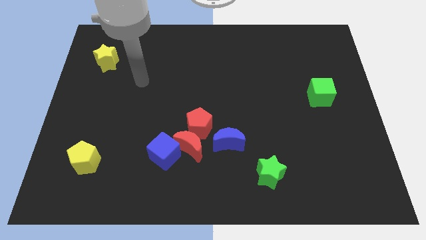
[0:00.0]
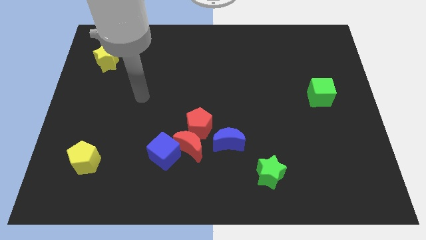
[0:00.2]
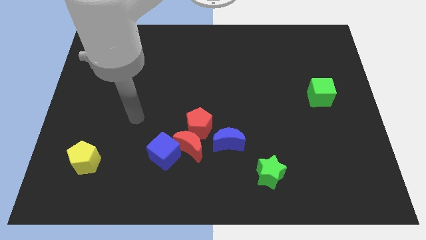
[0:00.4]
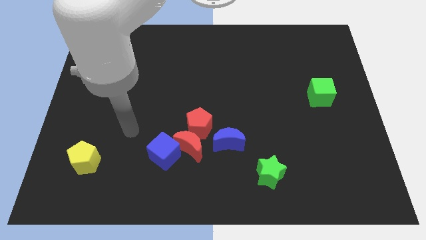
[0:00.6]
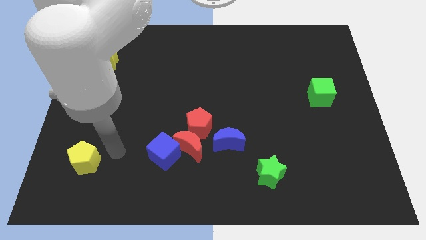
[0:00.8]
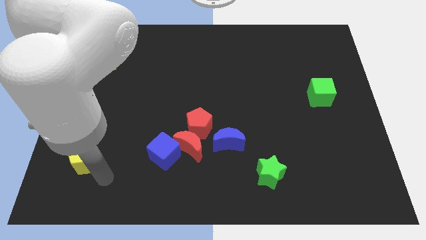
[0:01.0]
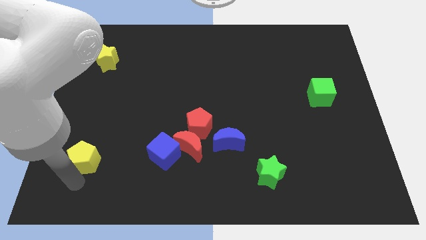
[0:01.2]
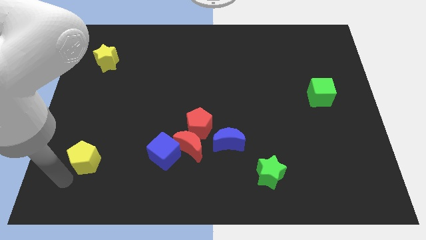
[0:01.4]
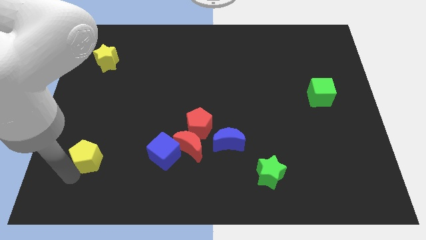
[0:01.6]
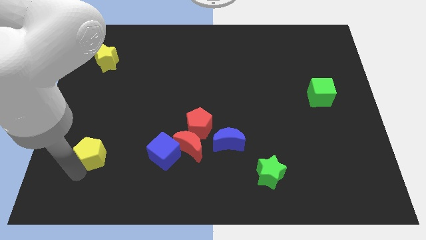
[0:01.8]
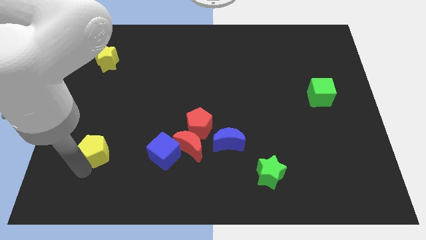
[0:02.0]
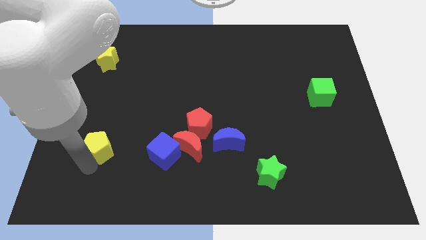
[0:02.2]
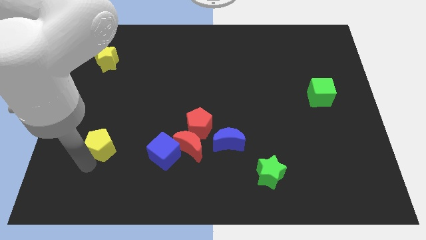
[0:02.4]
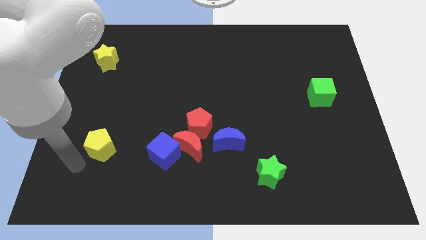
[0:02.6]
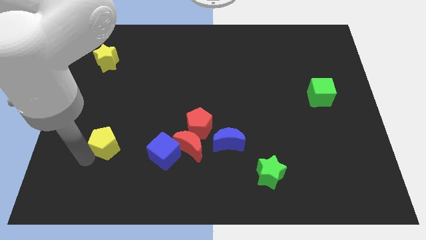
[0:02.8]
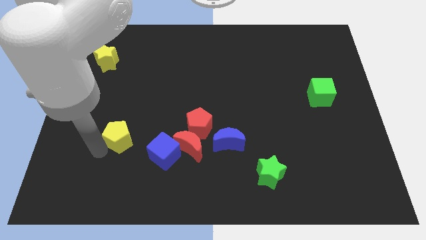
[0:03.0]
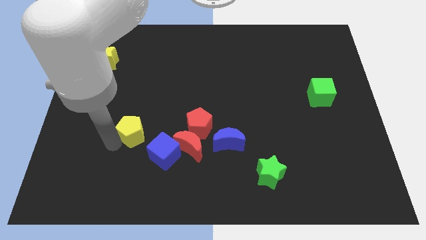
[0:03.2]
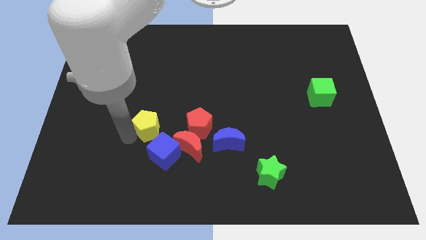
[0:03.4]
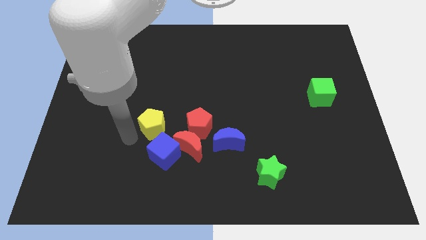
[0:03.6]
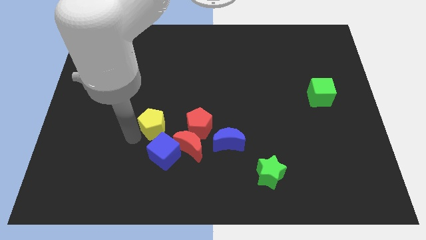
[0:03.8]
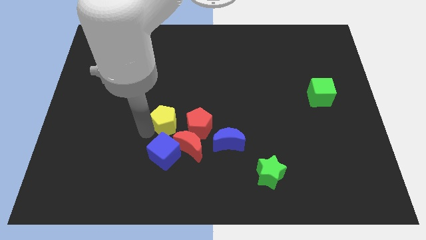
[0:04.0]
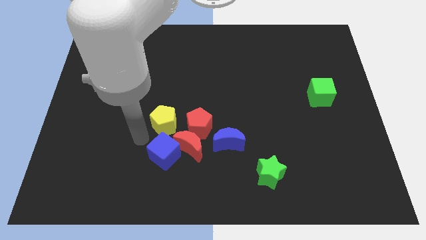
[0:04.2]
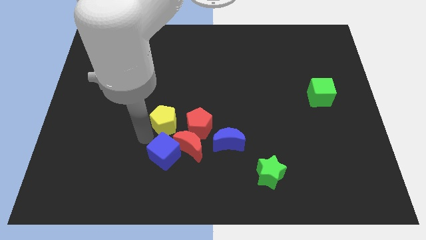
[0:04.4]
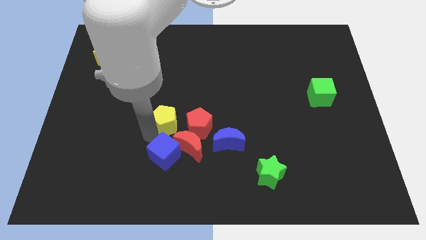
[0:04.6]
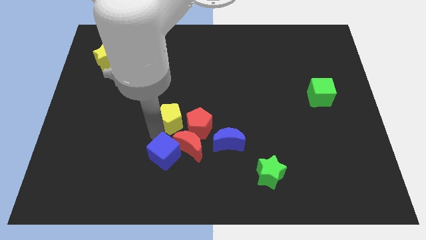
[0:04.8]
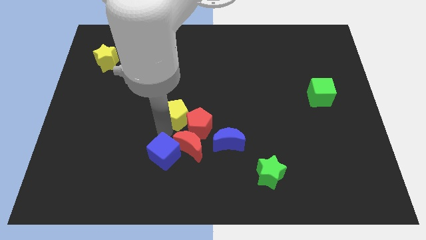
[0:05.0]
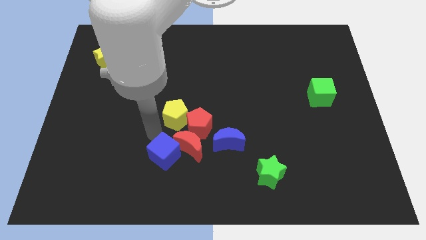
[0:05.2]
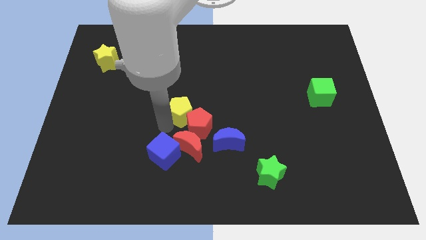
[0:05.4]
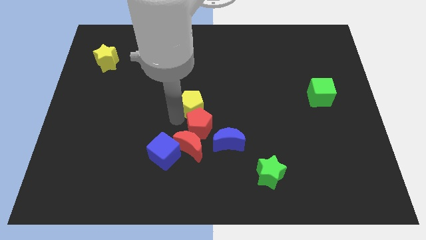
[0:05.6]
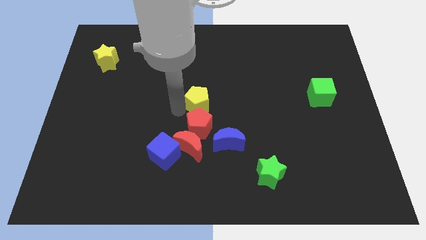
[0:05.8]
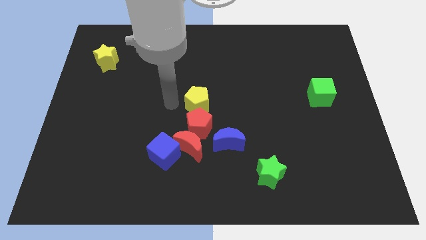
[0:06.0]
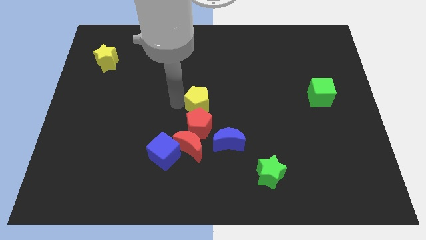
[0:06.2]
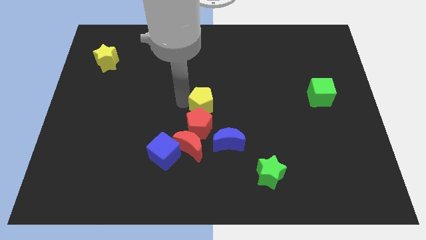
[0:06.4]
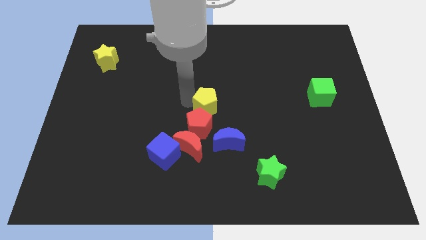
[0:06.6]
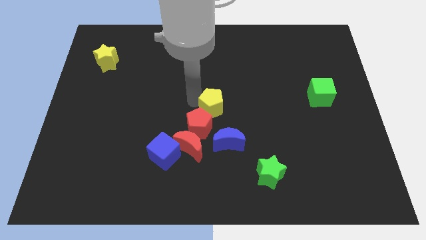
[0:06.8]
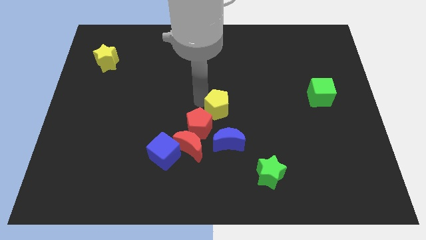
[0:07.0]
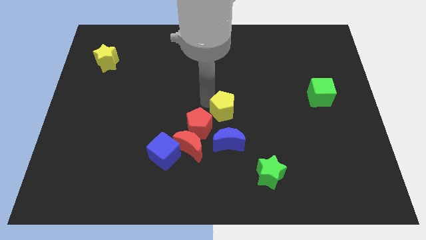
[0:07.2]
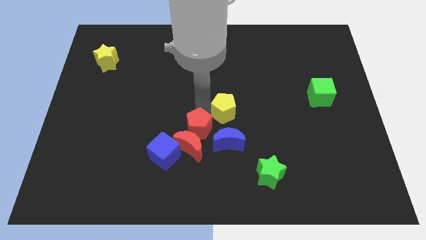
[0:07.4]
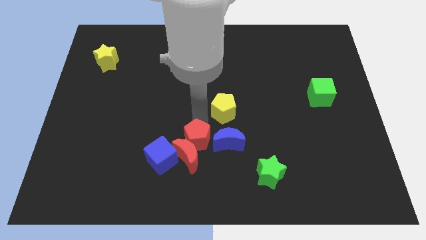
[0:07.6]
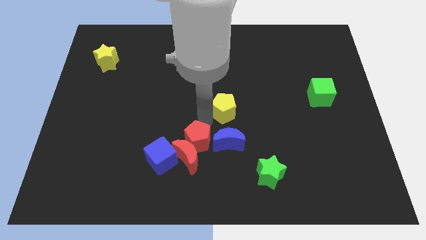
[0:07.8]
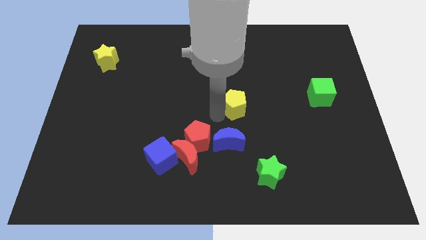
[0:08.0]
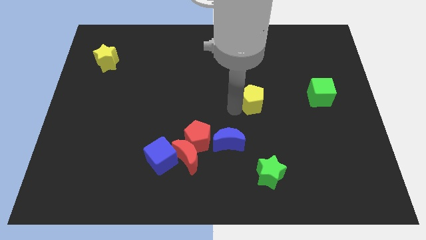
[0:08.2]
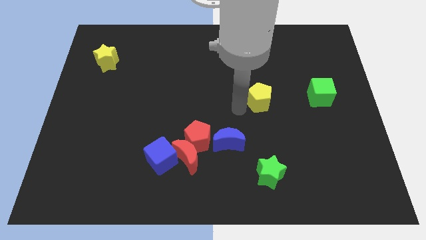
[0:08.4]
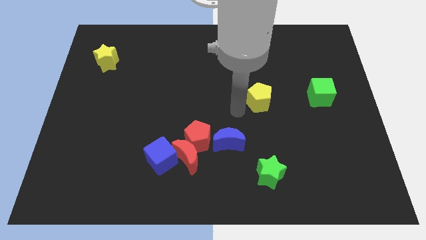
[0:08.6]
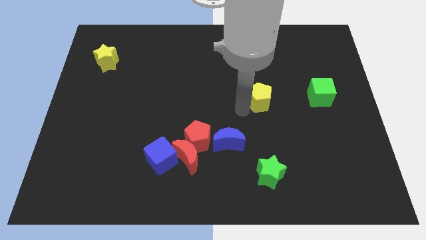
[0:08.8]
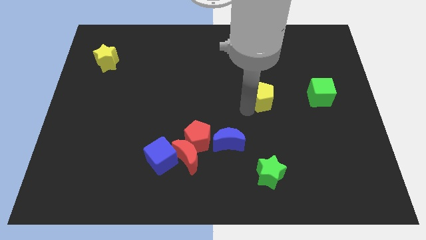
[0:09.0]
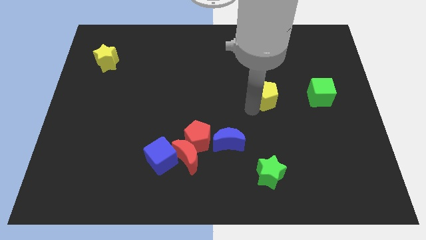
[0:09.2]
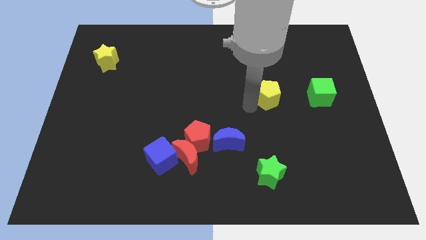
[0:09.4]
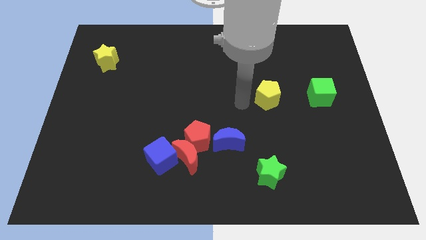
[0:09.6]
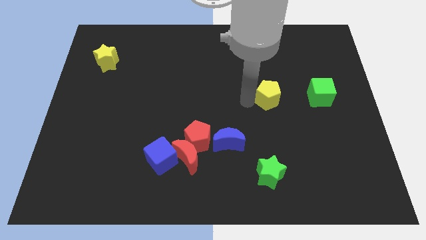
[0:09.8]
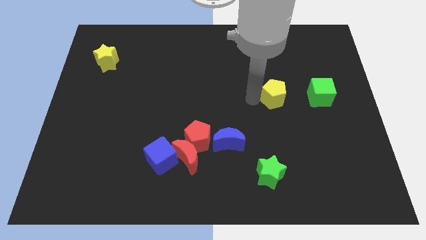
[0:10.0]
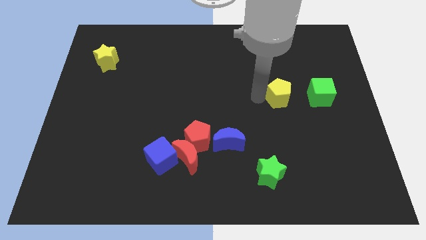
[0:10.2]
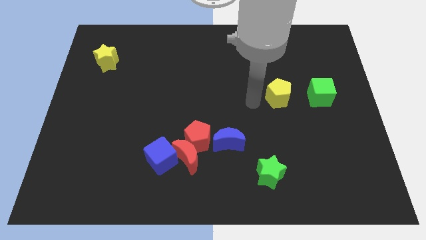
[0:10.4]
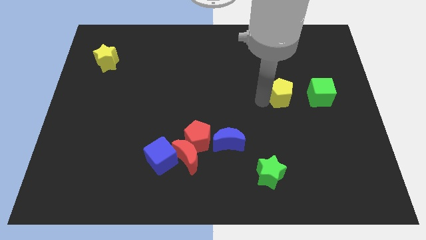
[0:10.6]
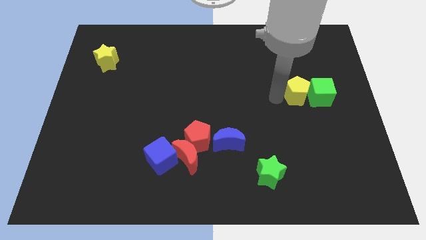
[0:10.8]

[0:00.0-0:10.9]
put the yellow pentagon to the green cube

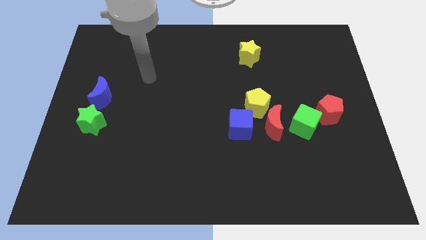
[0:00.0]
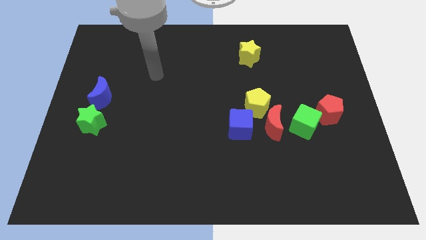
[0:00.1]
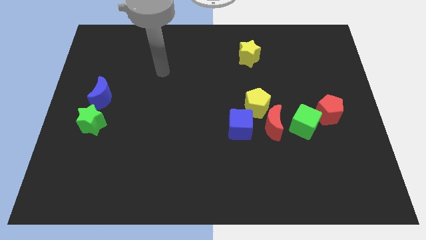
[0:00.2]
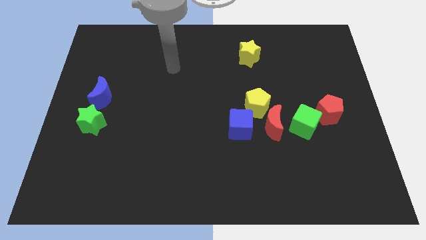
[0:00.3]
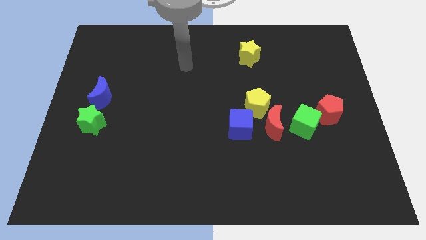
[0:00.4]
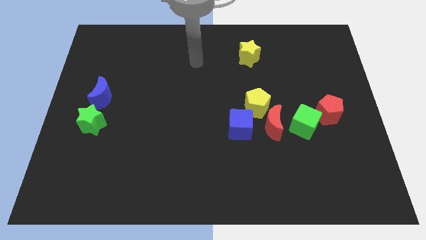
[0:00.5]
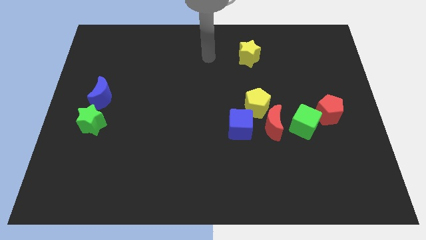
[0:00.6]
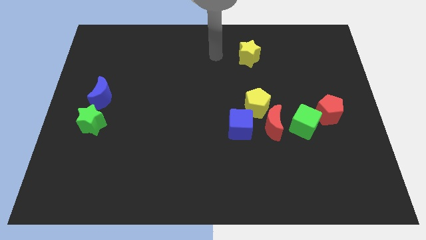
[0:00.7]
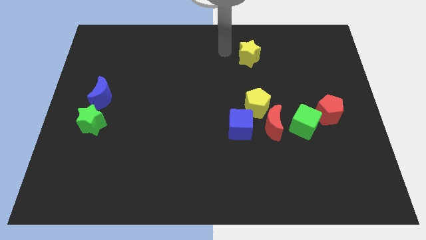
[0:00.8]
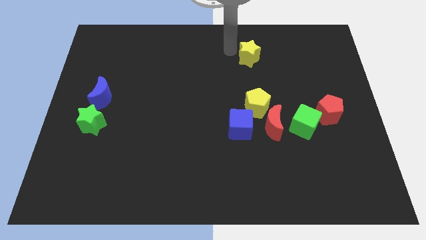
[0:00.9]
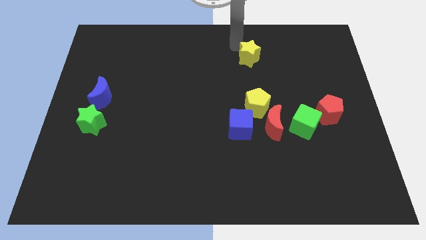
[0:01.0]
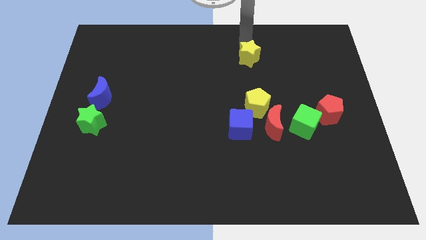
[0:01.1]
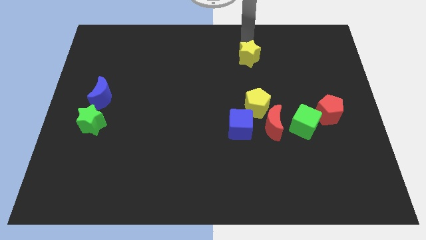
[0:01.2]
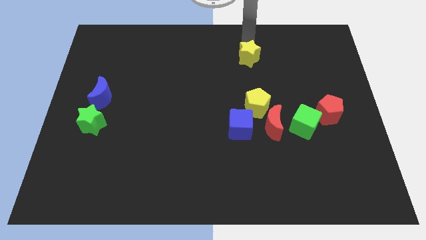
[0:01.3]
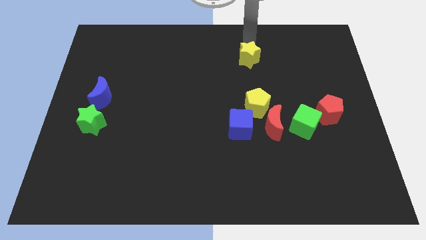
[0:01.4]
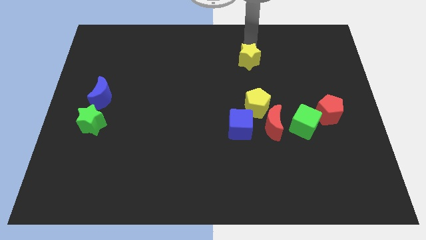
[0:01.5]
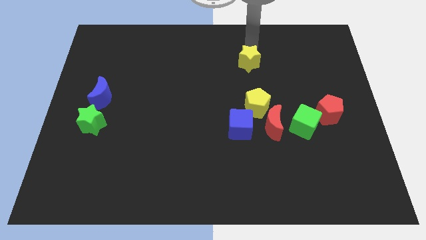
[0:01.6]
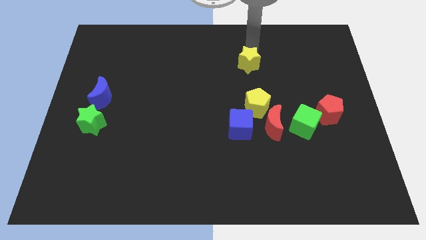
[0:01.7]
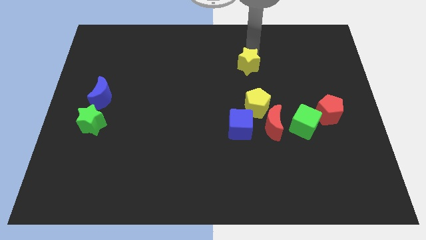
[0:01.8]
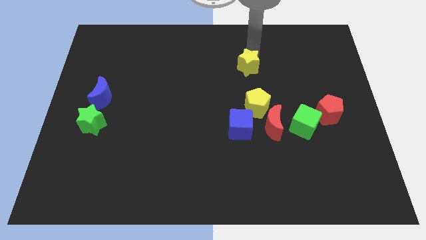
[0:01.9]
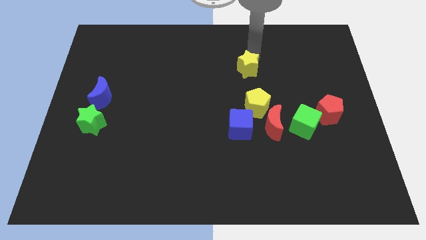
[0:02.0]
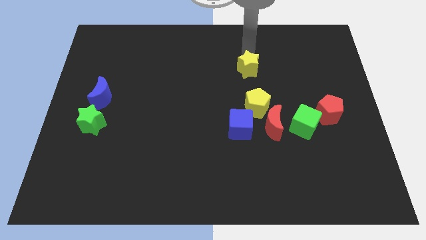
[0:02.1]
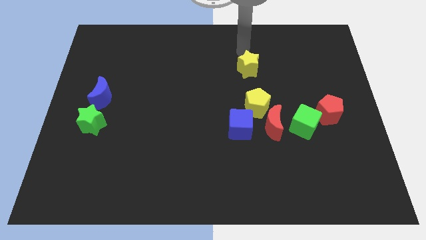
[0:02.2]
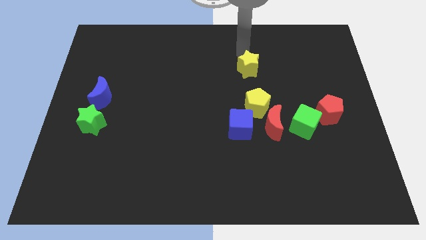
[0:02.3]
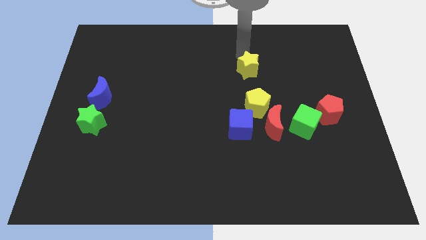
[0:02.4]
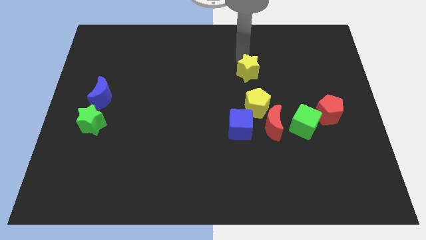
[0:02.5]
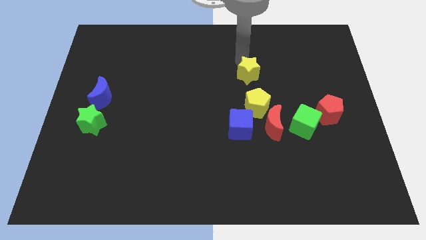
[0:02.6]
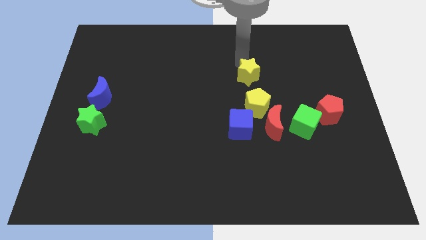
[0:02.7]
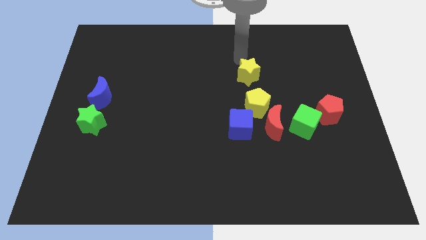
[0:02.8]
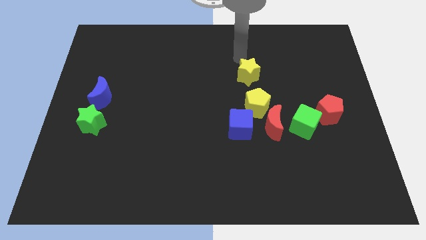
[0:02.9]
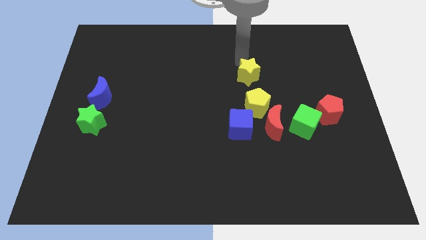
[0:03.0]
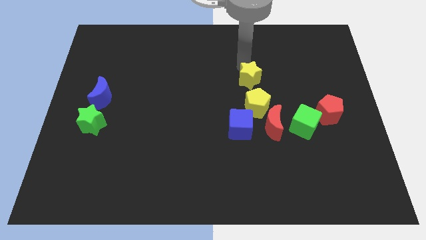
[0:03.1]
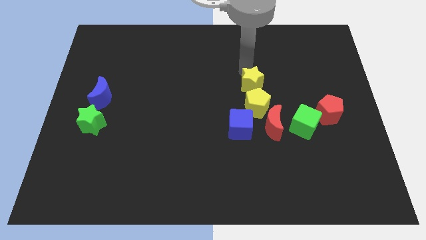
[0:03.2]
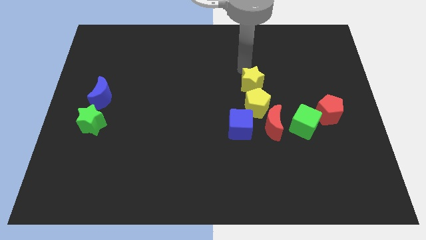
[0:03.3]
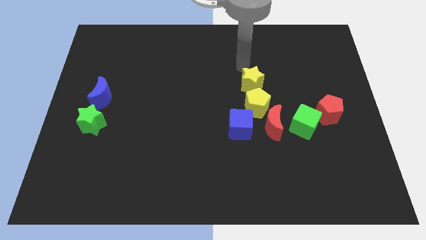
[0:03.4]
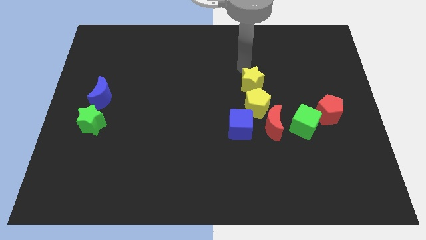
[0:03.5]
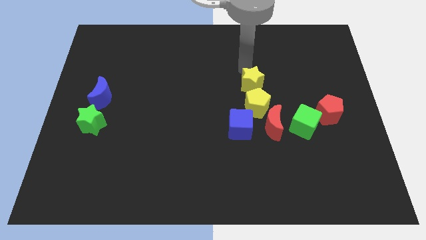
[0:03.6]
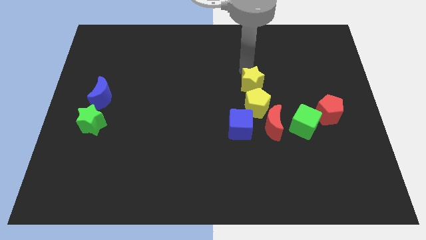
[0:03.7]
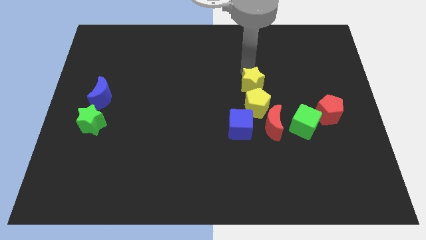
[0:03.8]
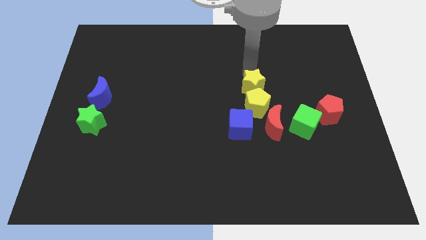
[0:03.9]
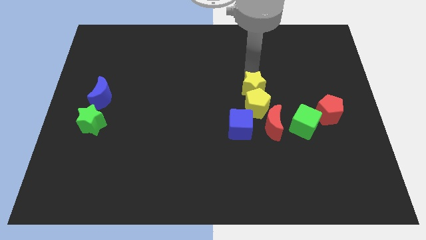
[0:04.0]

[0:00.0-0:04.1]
slide the yellow star towards the yellow pentagon
